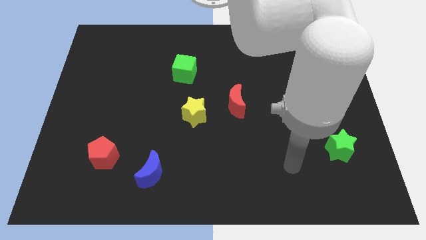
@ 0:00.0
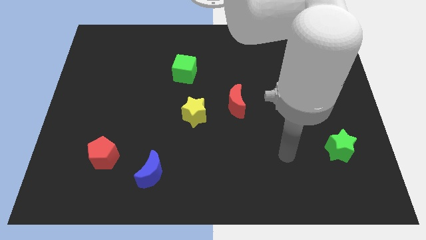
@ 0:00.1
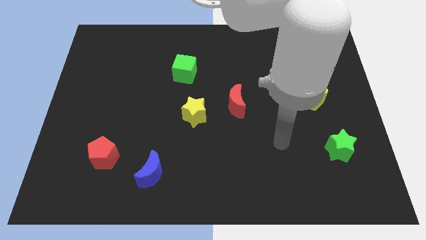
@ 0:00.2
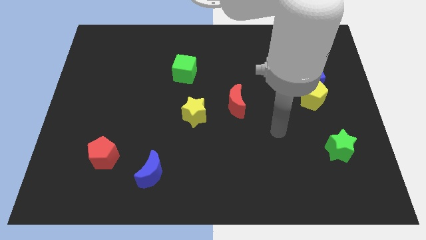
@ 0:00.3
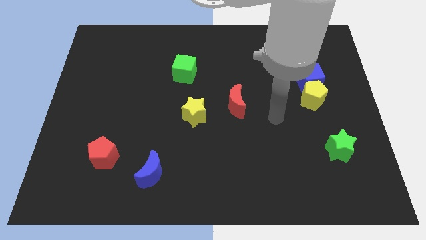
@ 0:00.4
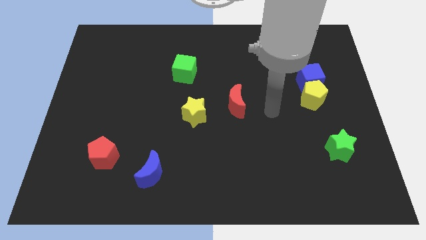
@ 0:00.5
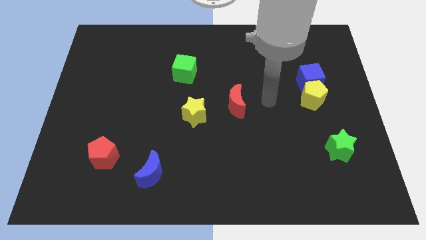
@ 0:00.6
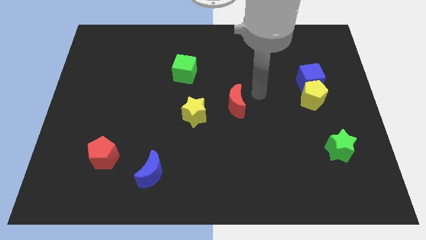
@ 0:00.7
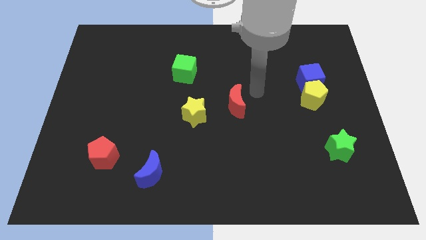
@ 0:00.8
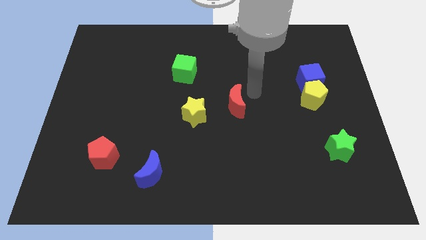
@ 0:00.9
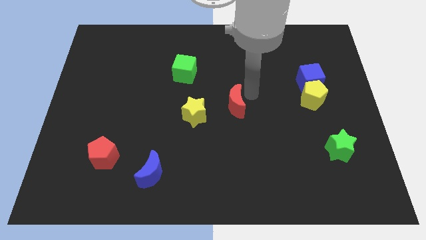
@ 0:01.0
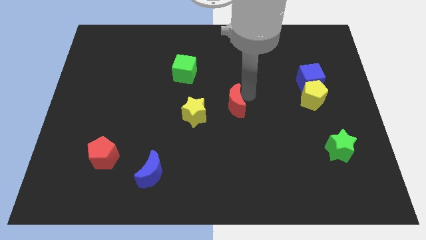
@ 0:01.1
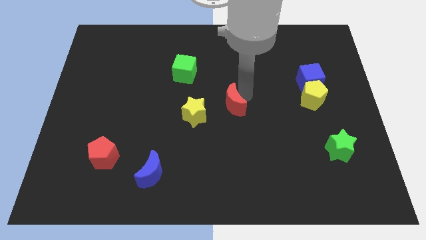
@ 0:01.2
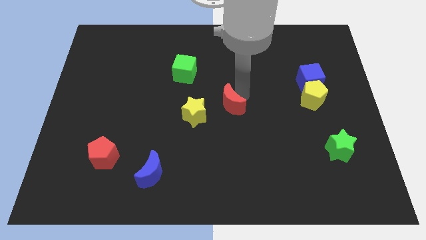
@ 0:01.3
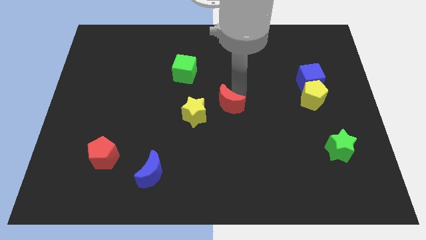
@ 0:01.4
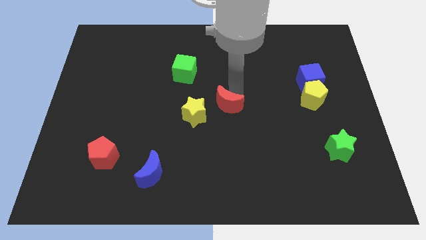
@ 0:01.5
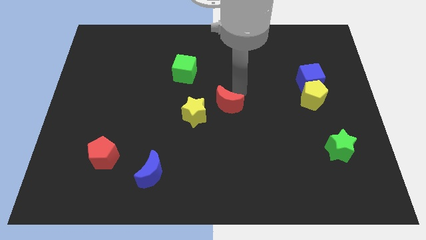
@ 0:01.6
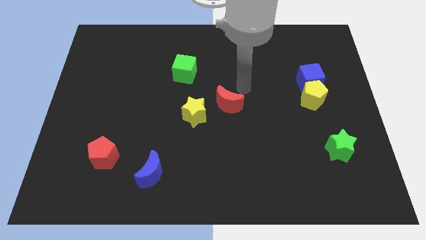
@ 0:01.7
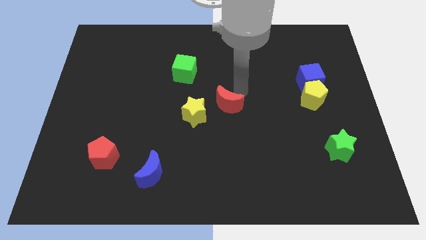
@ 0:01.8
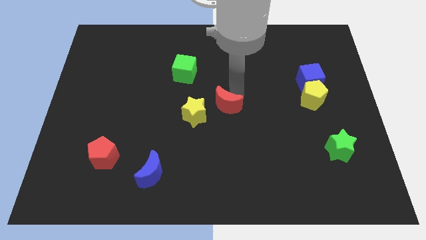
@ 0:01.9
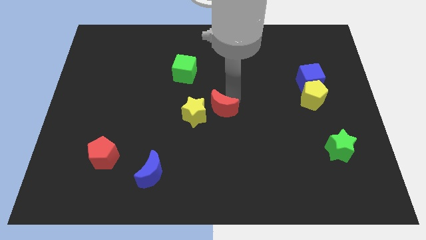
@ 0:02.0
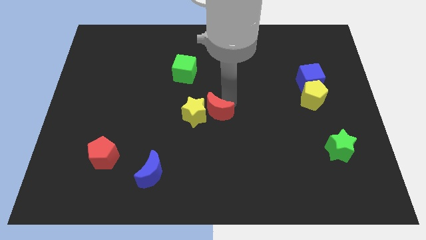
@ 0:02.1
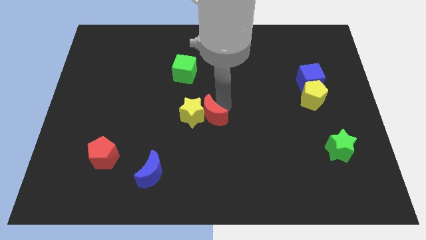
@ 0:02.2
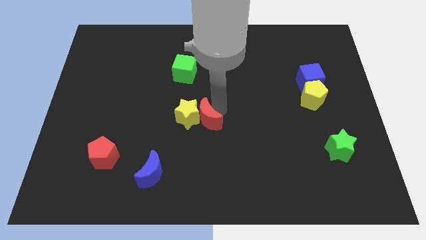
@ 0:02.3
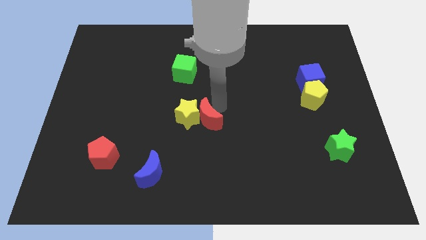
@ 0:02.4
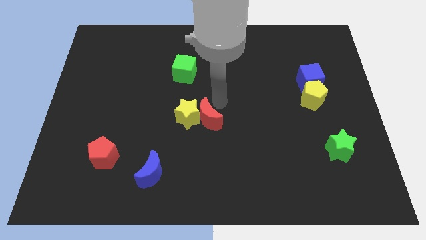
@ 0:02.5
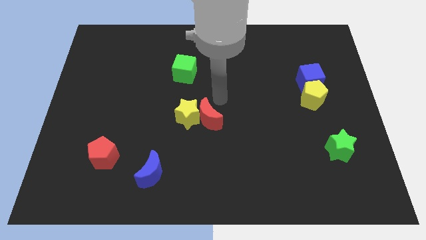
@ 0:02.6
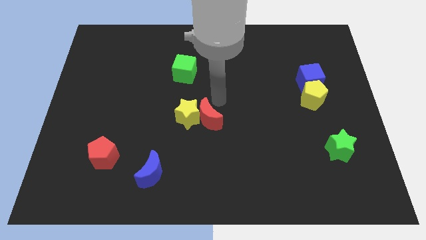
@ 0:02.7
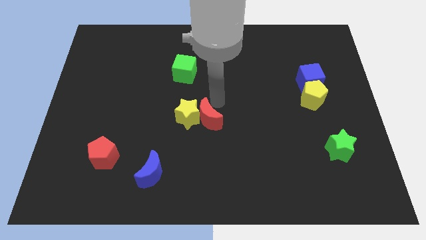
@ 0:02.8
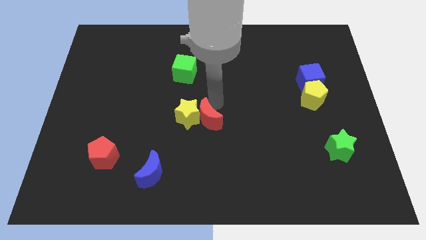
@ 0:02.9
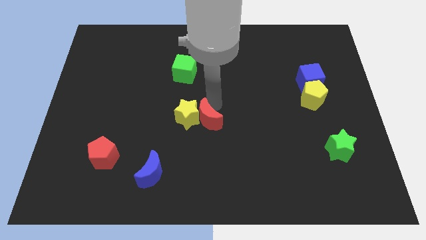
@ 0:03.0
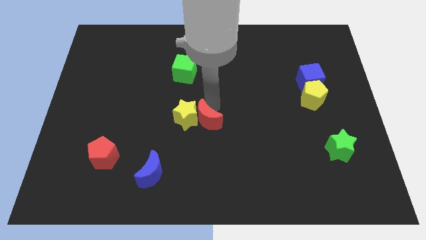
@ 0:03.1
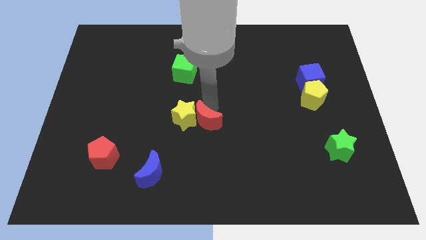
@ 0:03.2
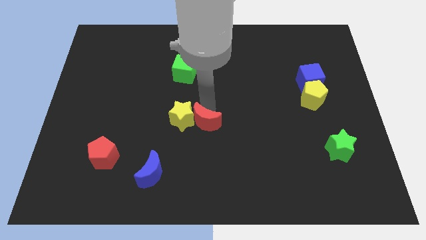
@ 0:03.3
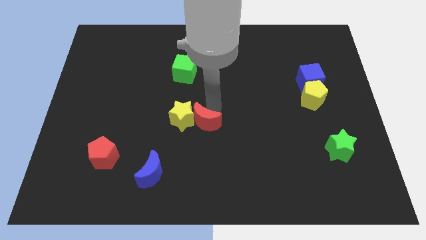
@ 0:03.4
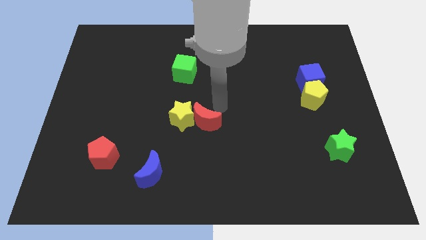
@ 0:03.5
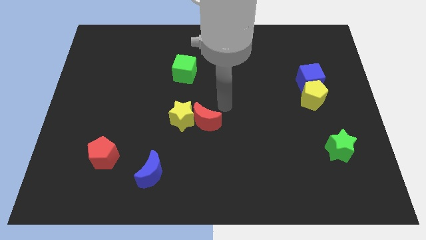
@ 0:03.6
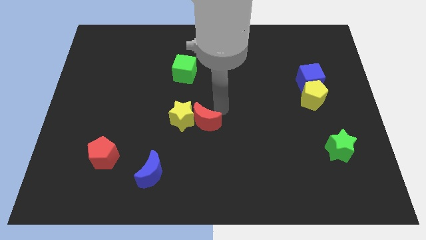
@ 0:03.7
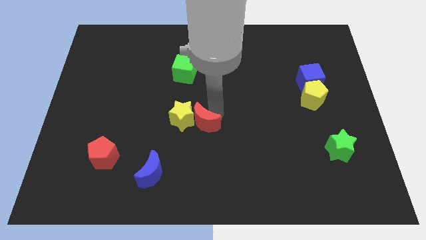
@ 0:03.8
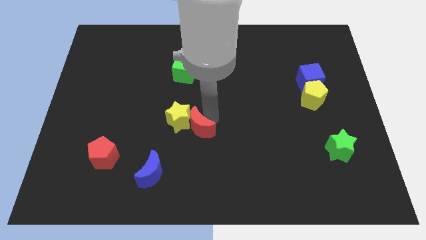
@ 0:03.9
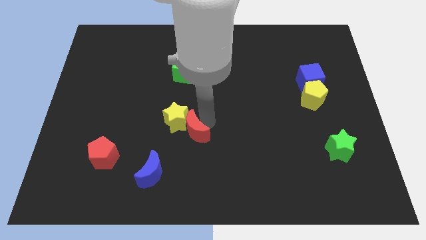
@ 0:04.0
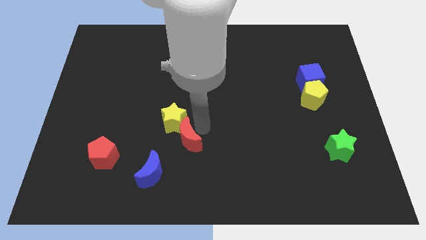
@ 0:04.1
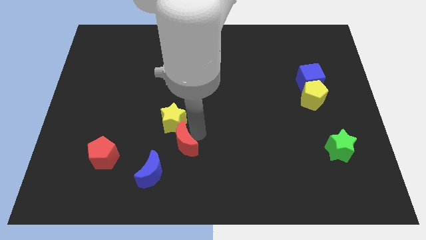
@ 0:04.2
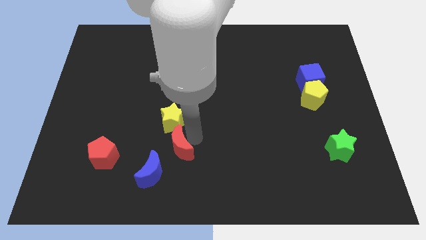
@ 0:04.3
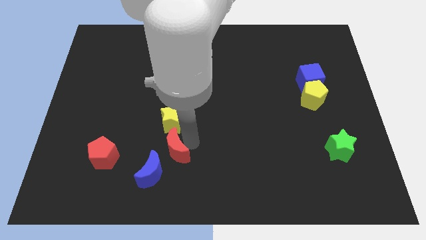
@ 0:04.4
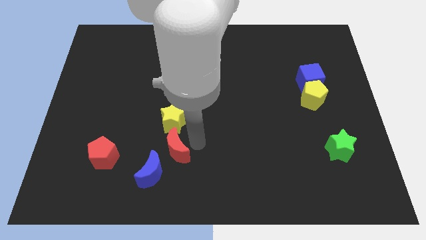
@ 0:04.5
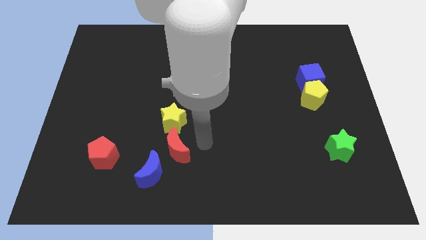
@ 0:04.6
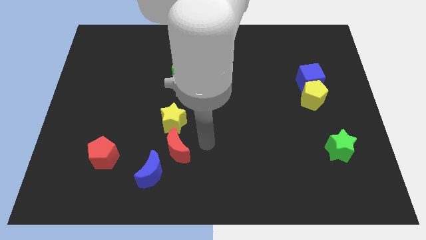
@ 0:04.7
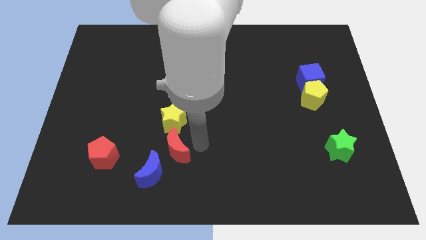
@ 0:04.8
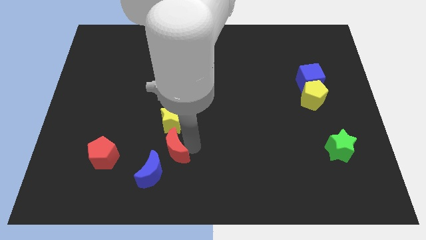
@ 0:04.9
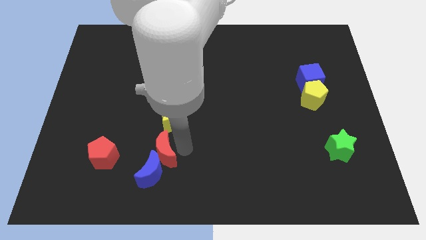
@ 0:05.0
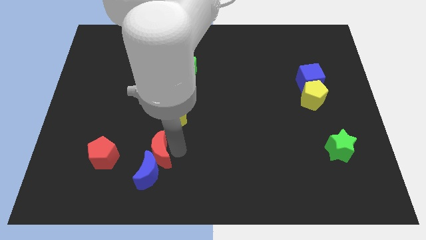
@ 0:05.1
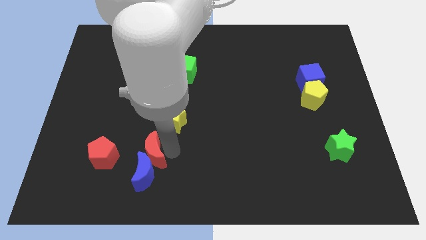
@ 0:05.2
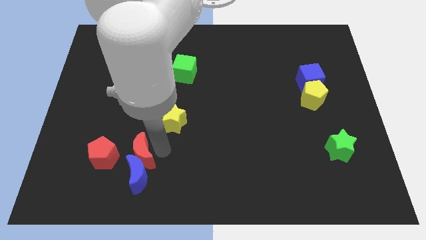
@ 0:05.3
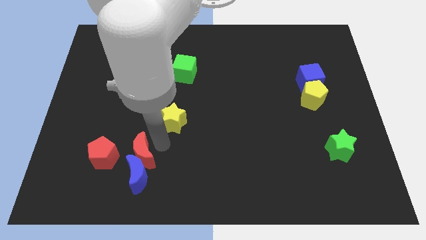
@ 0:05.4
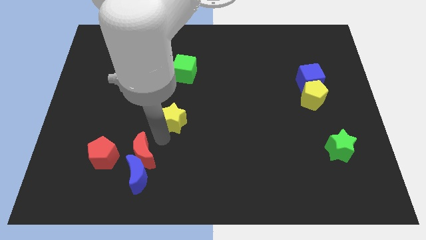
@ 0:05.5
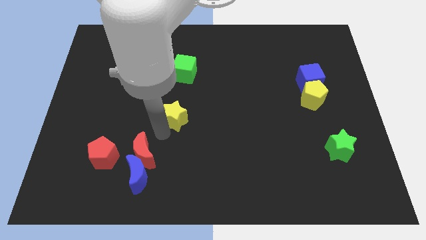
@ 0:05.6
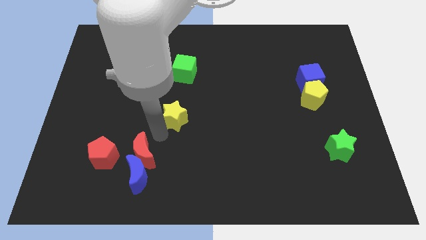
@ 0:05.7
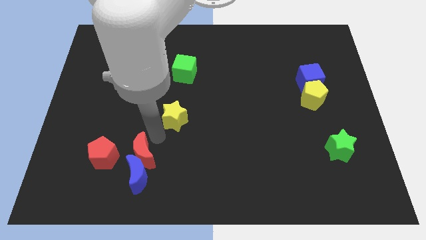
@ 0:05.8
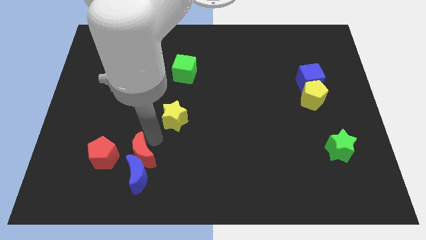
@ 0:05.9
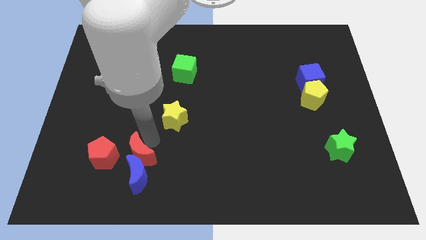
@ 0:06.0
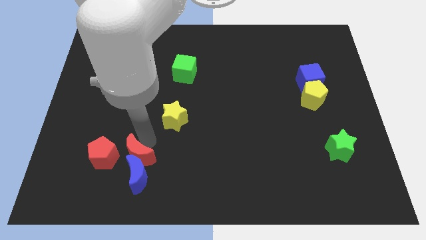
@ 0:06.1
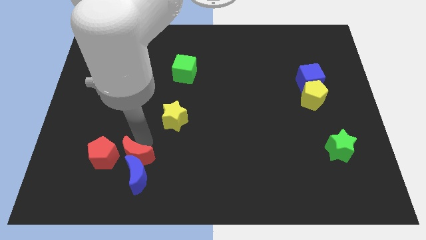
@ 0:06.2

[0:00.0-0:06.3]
push the red moon to the bottom right side of the red pentagon
